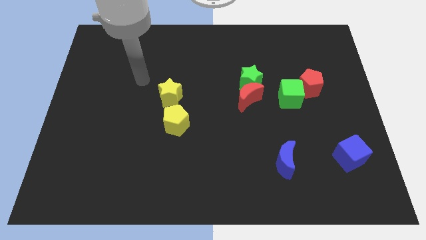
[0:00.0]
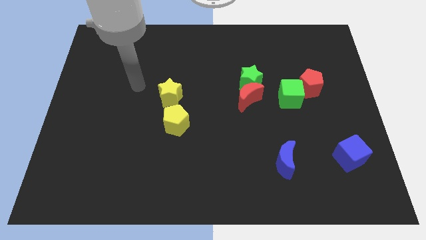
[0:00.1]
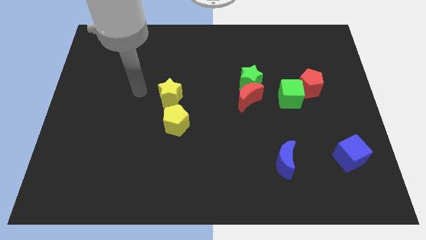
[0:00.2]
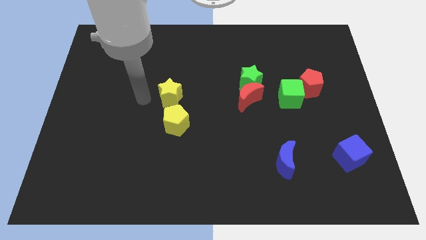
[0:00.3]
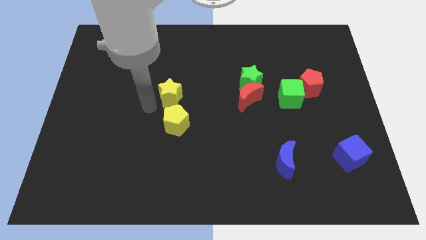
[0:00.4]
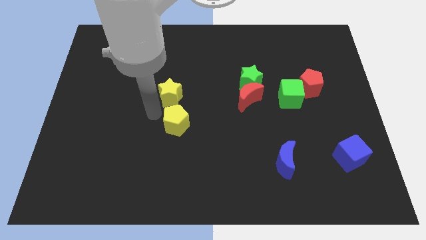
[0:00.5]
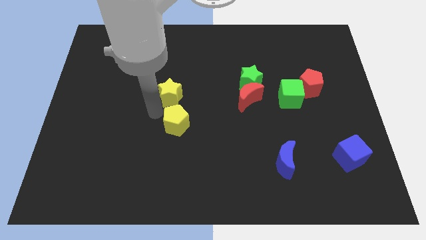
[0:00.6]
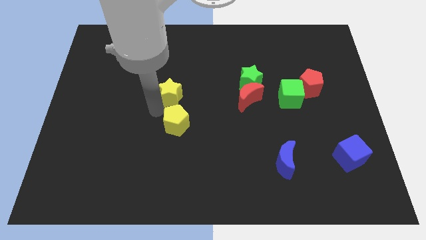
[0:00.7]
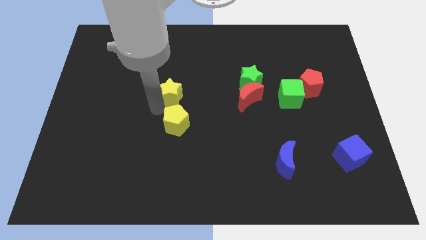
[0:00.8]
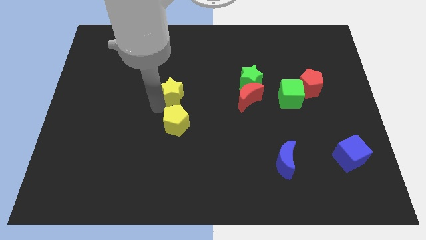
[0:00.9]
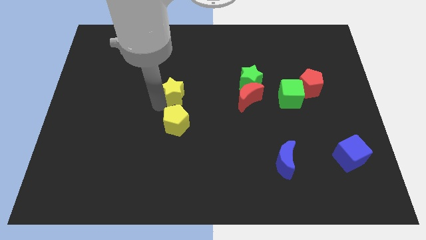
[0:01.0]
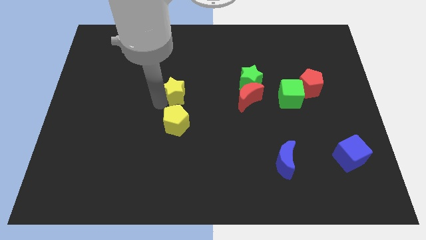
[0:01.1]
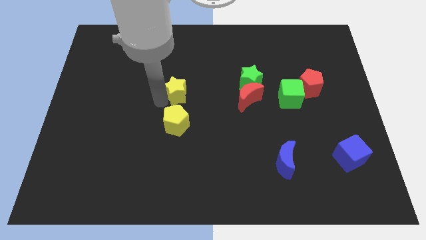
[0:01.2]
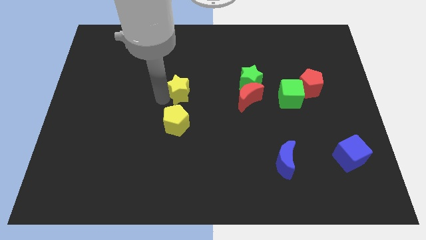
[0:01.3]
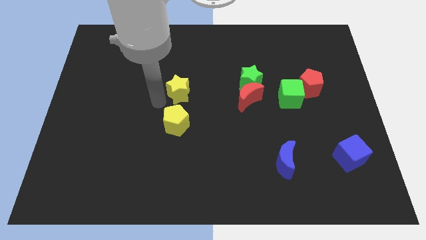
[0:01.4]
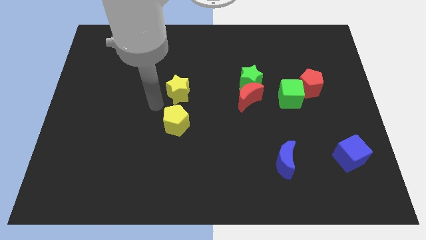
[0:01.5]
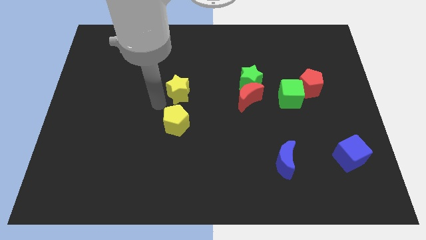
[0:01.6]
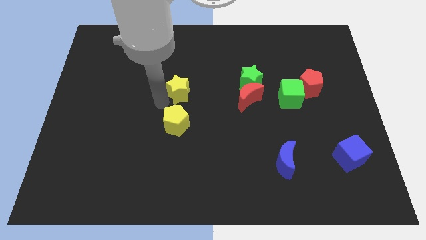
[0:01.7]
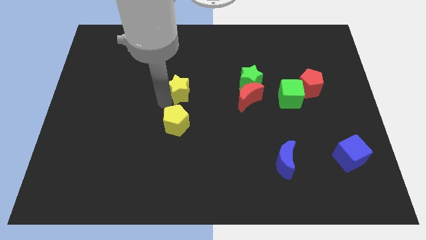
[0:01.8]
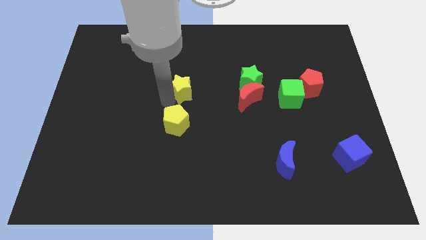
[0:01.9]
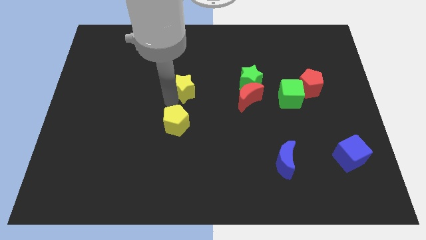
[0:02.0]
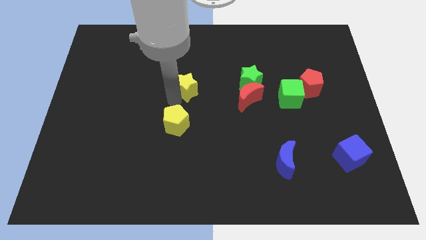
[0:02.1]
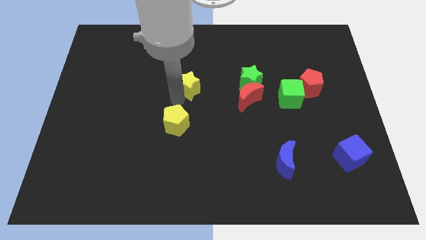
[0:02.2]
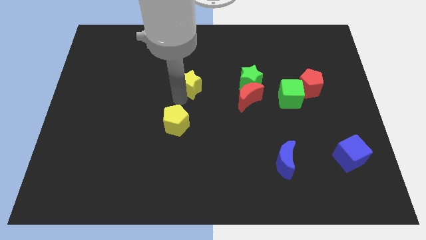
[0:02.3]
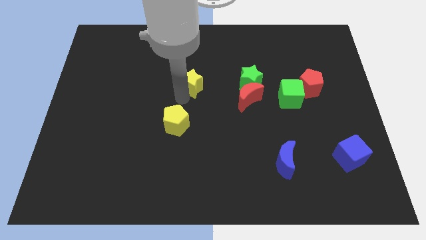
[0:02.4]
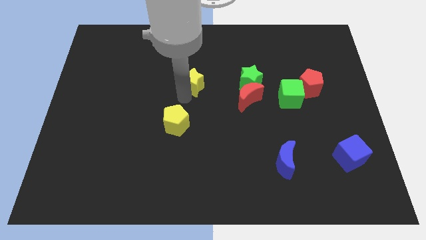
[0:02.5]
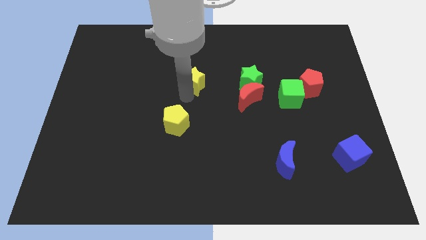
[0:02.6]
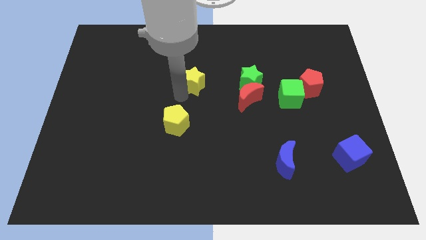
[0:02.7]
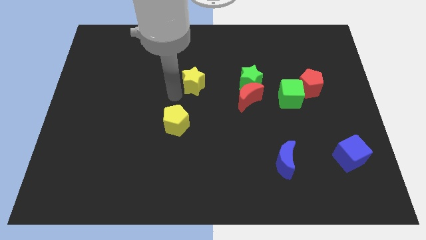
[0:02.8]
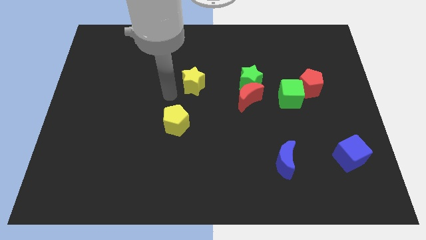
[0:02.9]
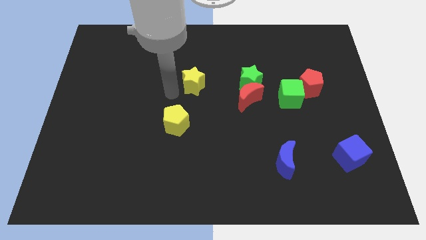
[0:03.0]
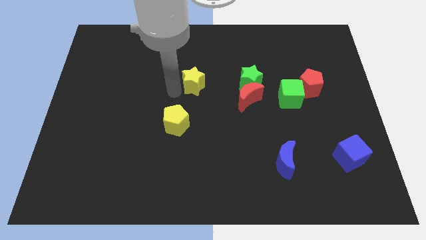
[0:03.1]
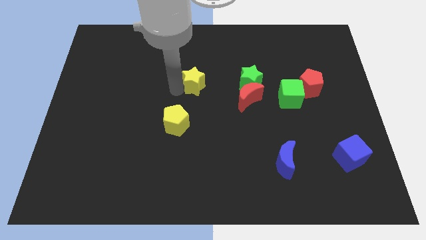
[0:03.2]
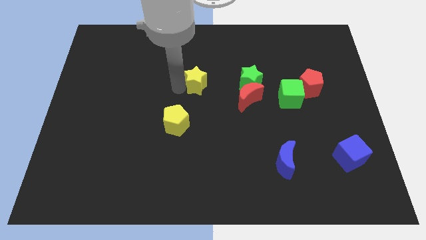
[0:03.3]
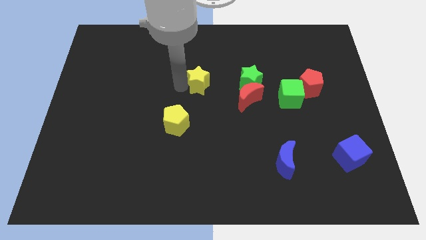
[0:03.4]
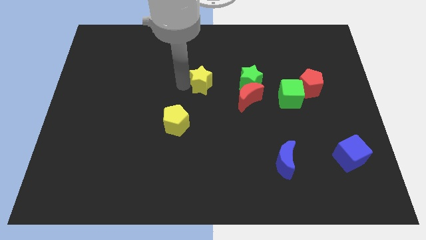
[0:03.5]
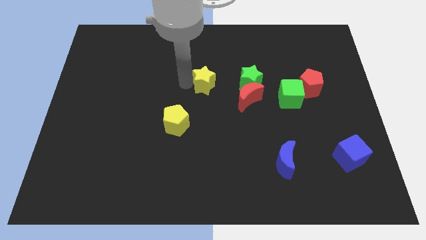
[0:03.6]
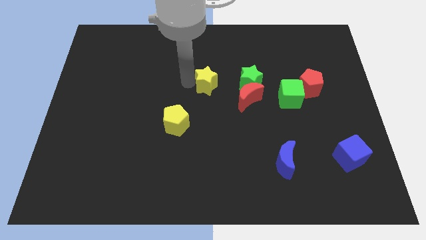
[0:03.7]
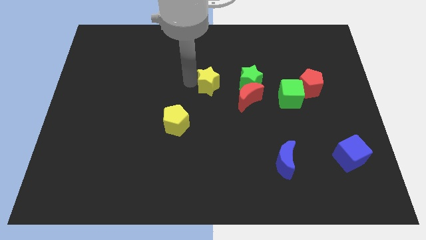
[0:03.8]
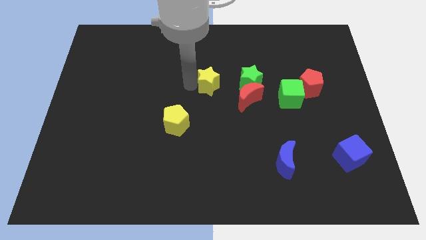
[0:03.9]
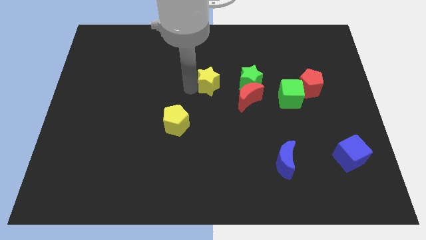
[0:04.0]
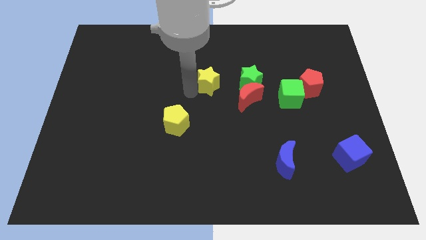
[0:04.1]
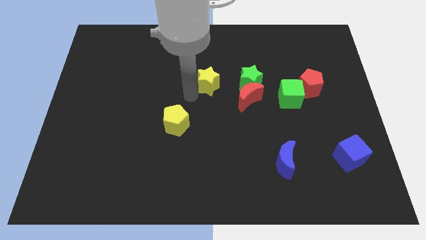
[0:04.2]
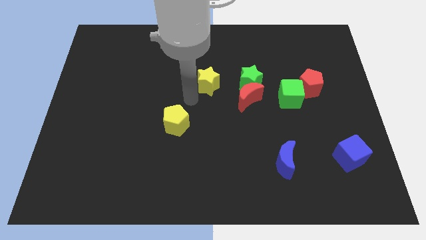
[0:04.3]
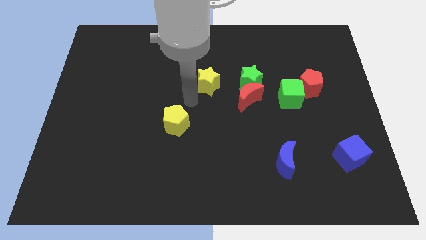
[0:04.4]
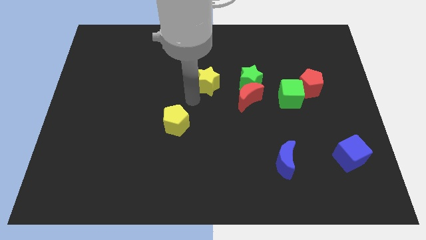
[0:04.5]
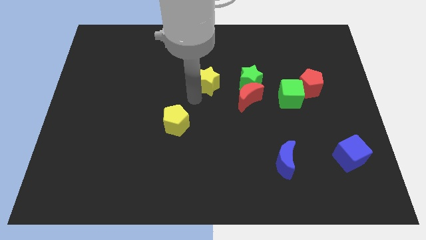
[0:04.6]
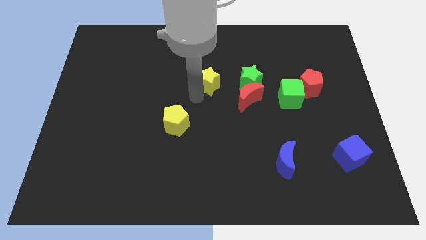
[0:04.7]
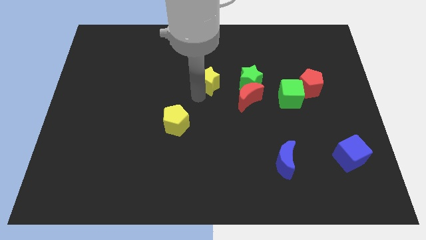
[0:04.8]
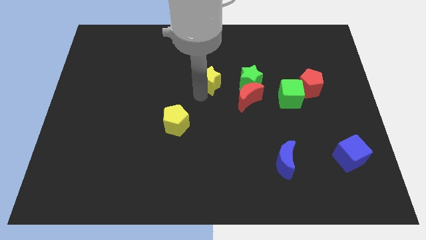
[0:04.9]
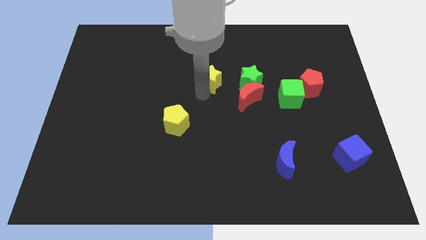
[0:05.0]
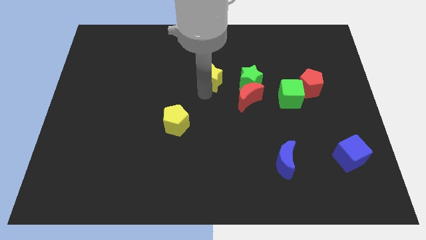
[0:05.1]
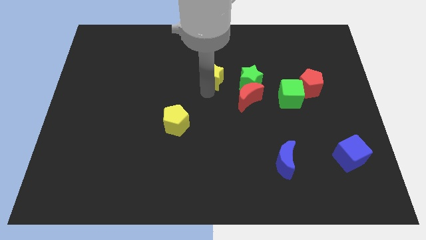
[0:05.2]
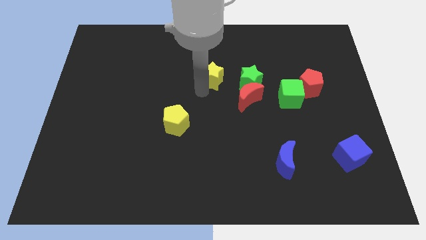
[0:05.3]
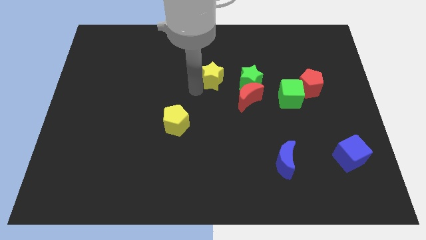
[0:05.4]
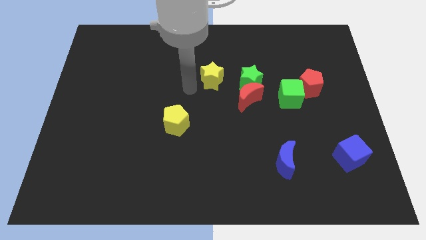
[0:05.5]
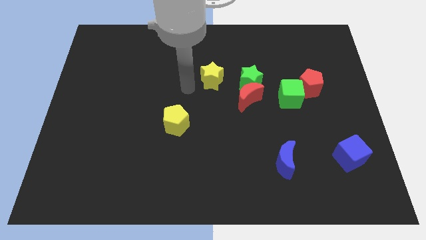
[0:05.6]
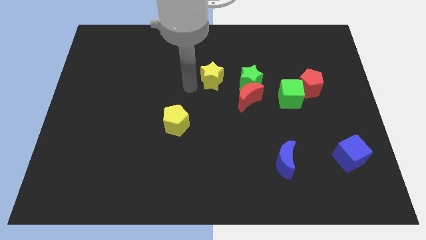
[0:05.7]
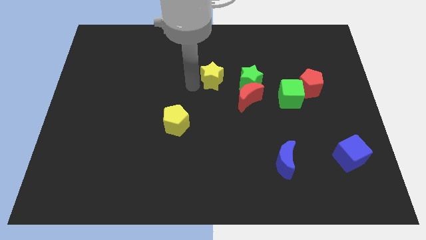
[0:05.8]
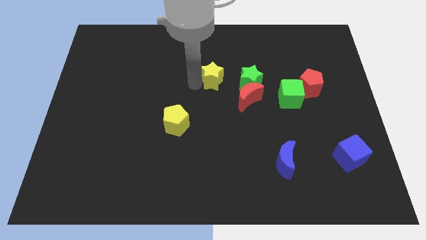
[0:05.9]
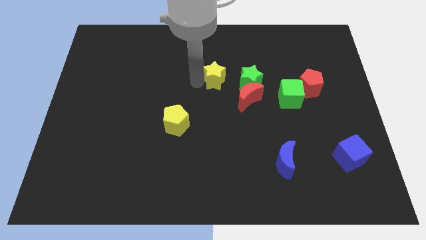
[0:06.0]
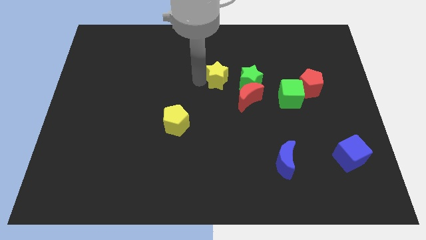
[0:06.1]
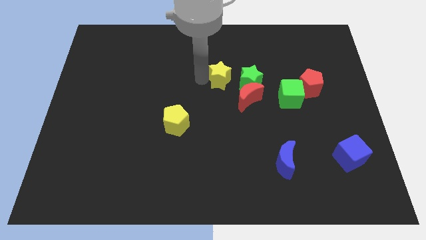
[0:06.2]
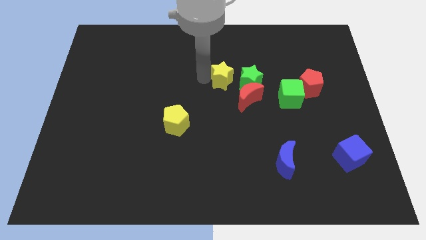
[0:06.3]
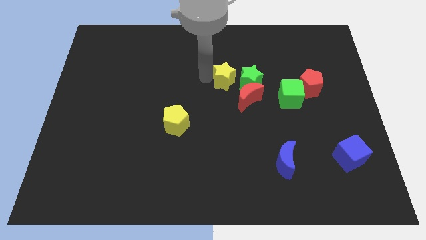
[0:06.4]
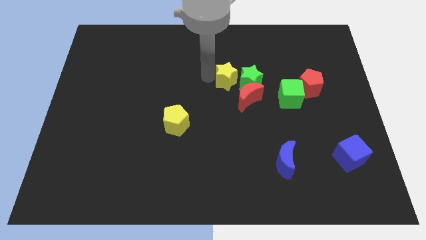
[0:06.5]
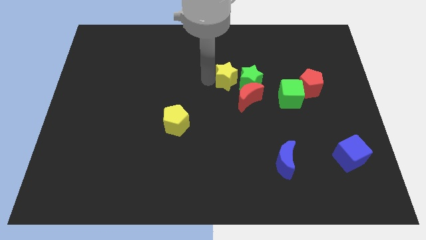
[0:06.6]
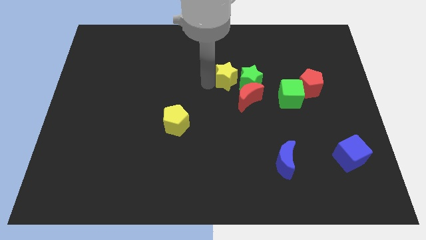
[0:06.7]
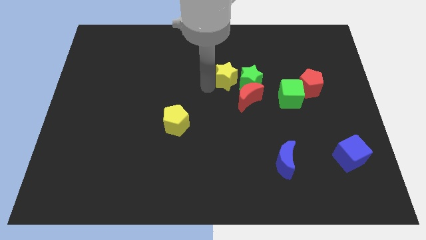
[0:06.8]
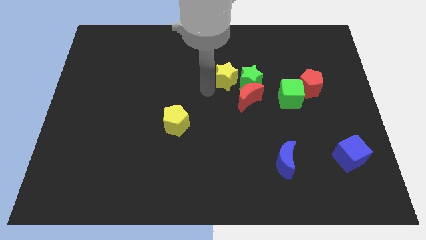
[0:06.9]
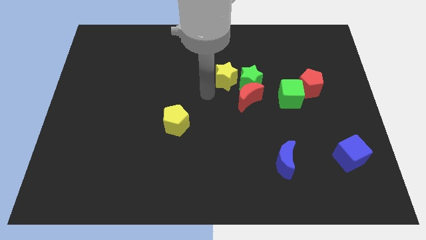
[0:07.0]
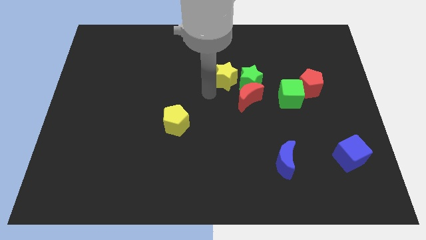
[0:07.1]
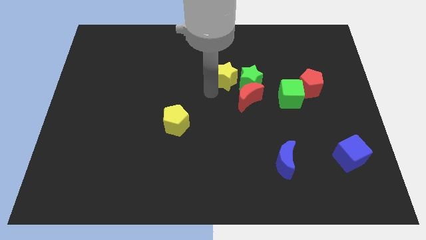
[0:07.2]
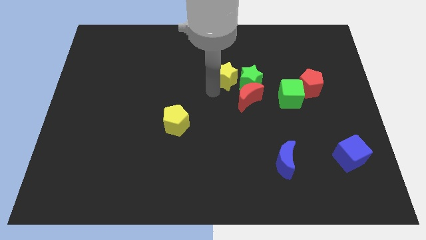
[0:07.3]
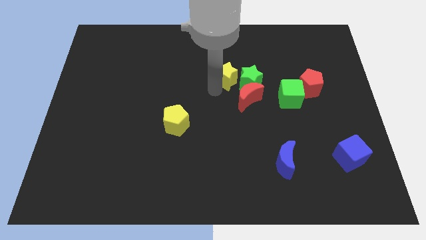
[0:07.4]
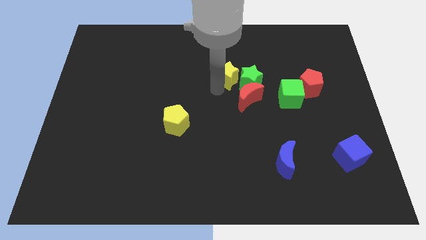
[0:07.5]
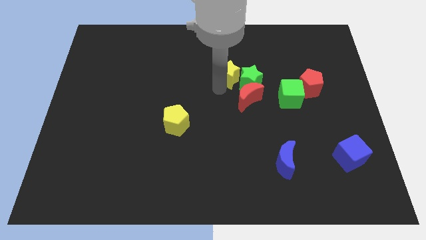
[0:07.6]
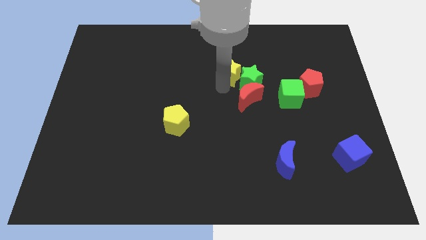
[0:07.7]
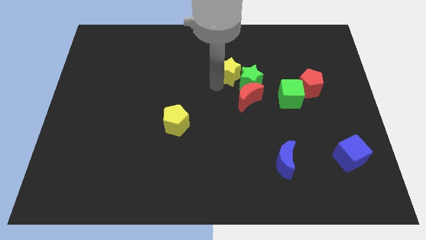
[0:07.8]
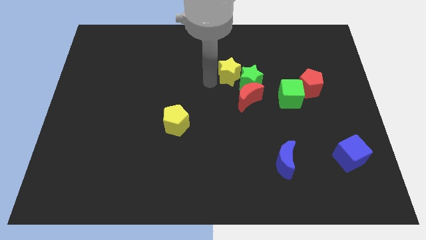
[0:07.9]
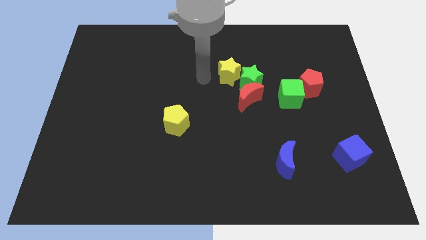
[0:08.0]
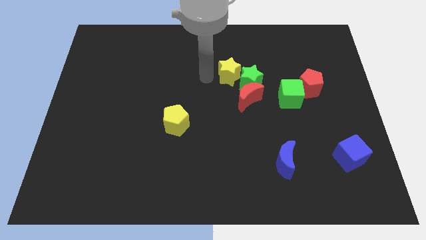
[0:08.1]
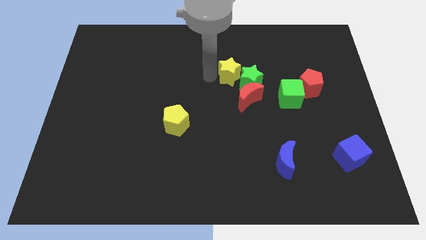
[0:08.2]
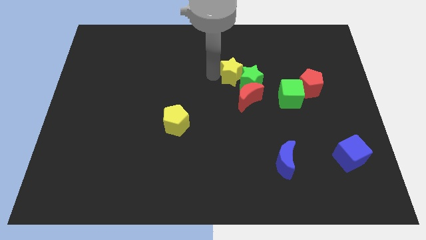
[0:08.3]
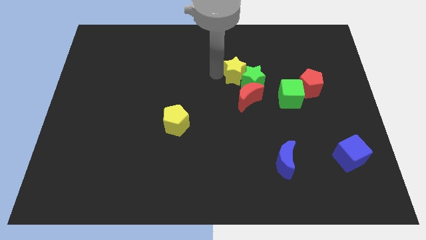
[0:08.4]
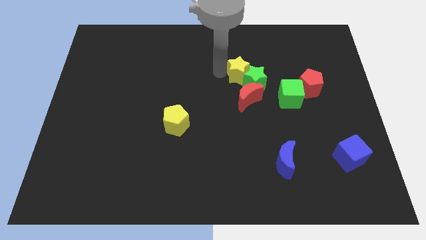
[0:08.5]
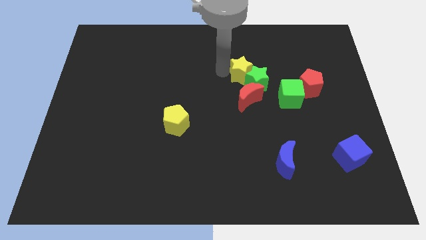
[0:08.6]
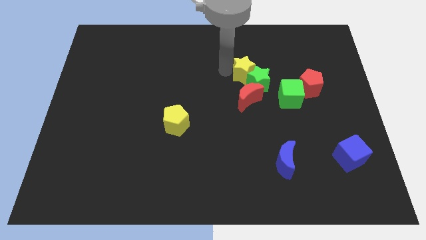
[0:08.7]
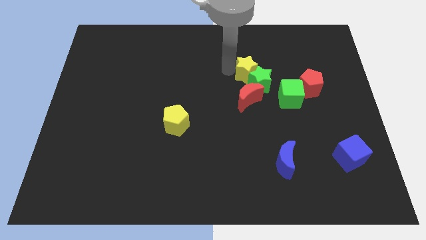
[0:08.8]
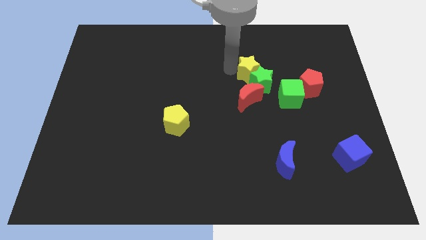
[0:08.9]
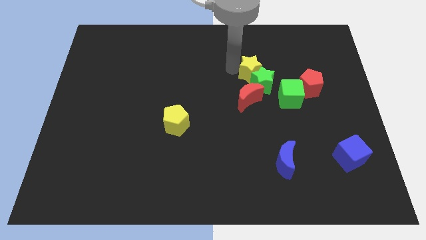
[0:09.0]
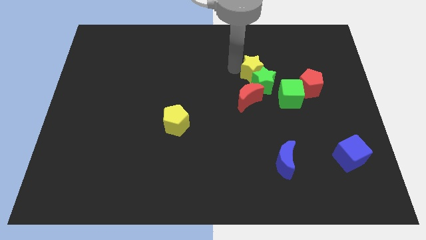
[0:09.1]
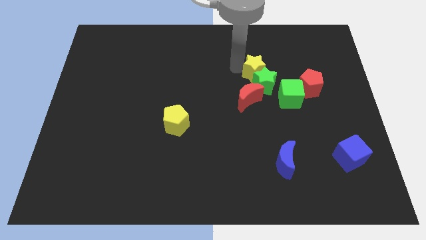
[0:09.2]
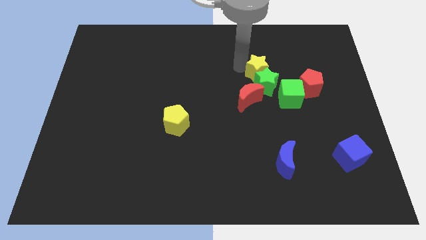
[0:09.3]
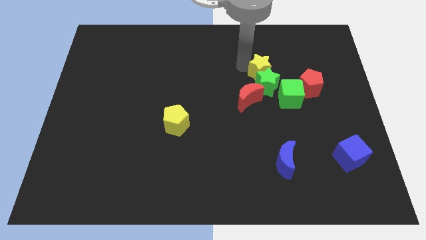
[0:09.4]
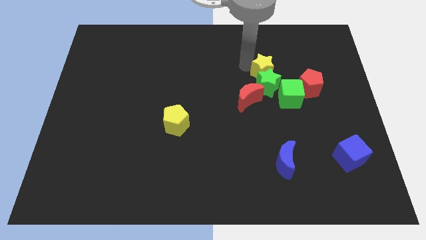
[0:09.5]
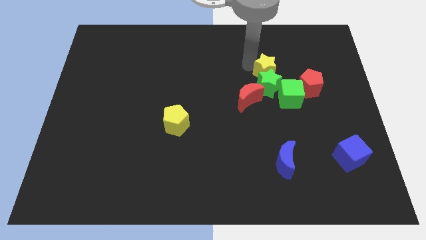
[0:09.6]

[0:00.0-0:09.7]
slide the yellow star to the top left of the red pentagon
